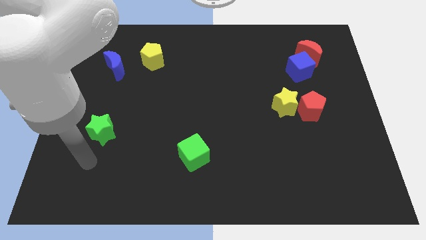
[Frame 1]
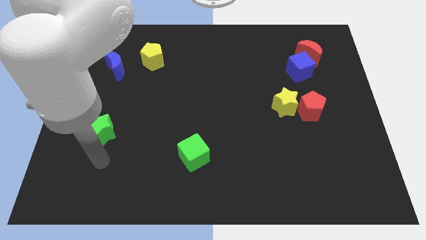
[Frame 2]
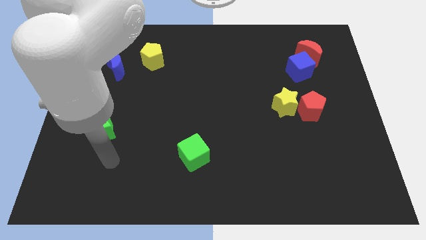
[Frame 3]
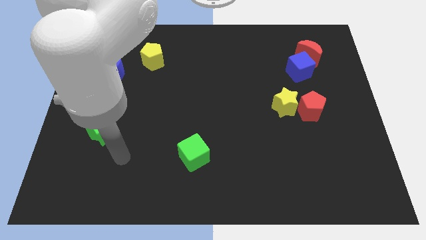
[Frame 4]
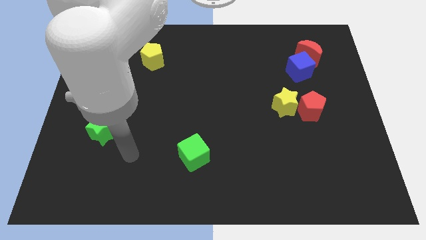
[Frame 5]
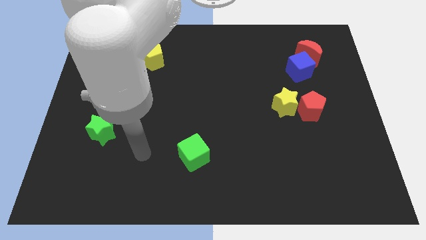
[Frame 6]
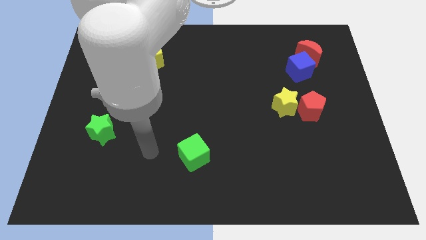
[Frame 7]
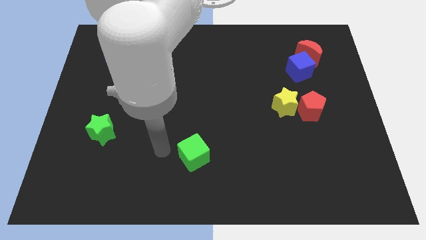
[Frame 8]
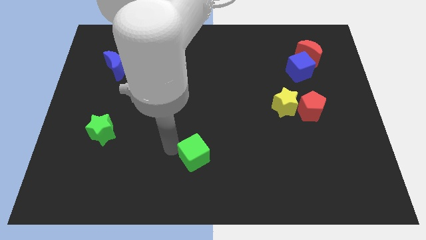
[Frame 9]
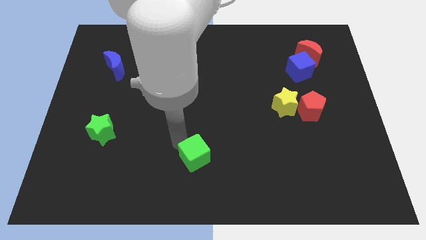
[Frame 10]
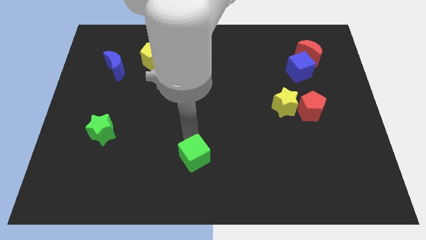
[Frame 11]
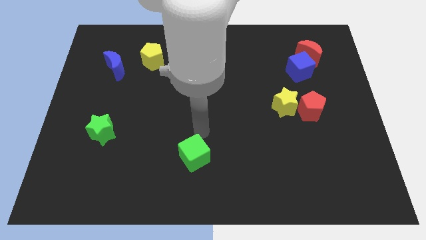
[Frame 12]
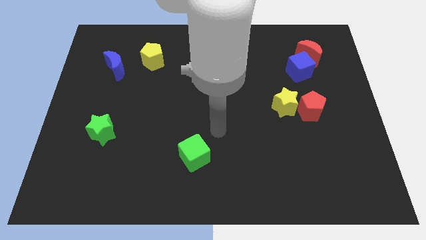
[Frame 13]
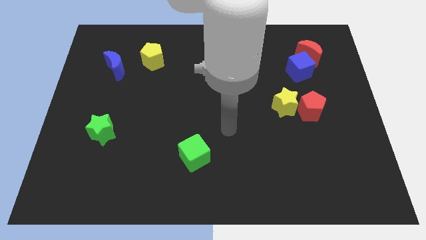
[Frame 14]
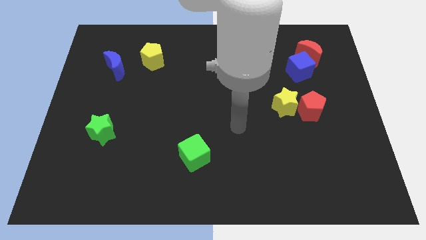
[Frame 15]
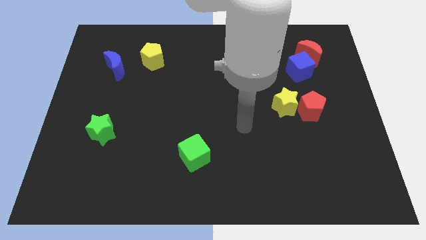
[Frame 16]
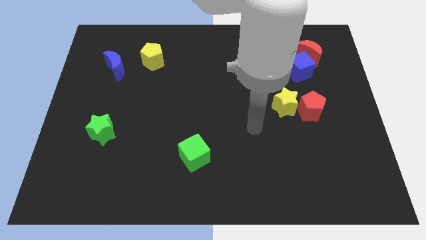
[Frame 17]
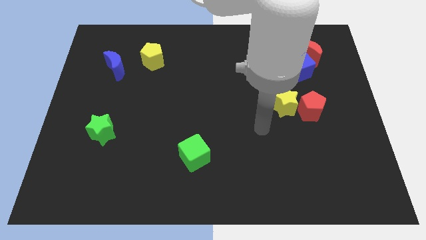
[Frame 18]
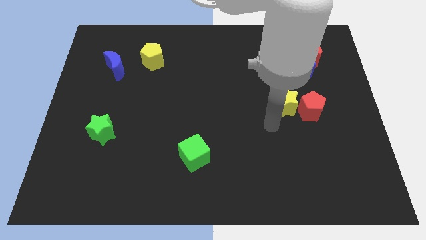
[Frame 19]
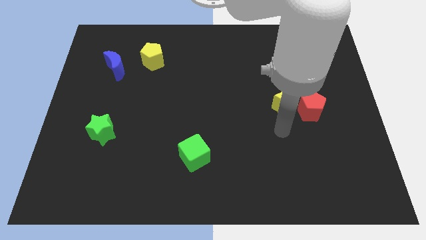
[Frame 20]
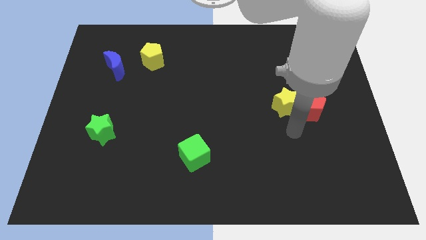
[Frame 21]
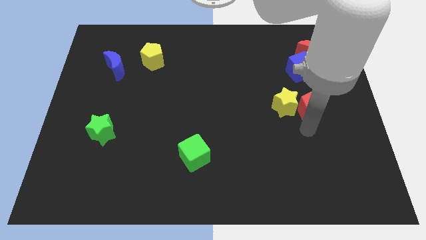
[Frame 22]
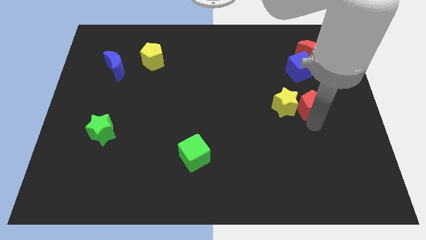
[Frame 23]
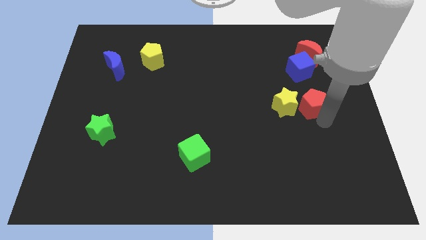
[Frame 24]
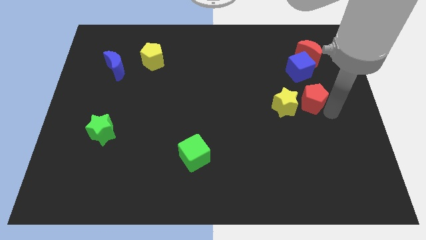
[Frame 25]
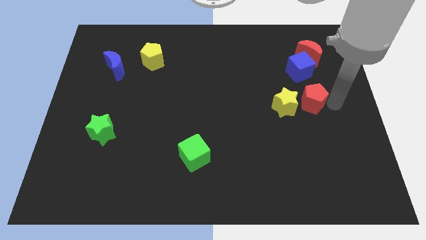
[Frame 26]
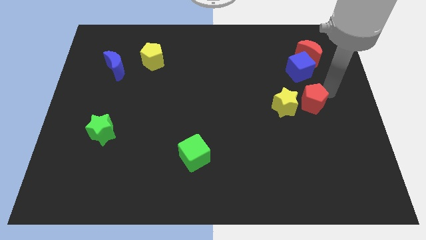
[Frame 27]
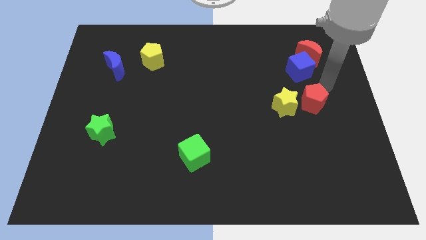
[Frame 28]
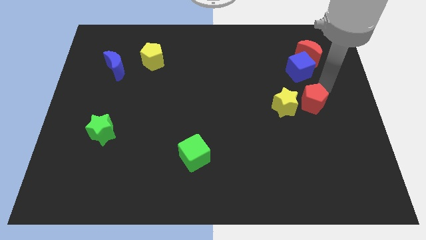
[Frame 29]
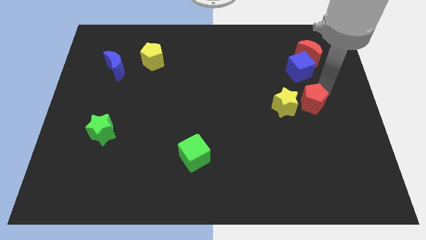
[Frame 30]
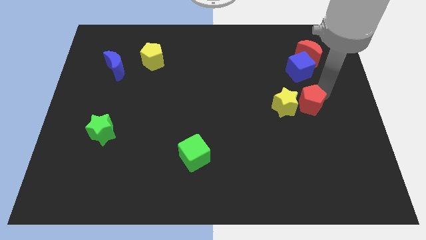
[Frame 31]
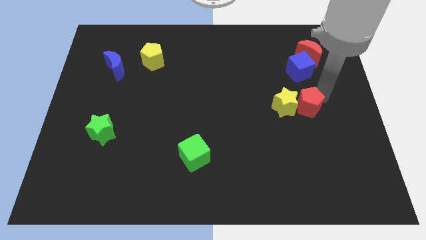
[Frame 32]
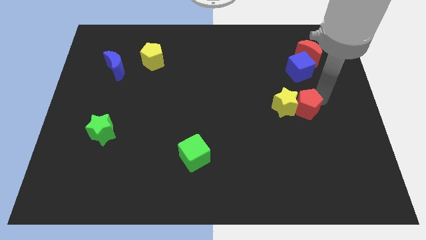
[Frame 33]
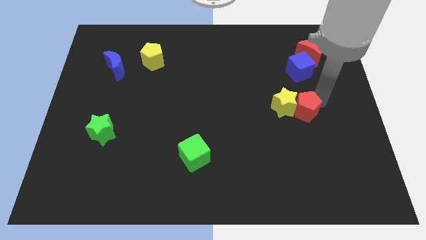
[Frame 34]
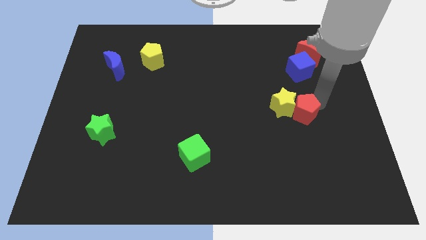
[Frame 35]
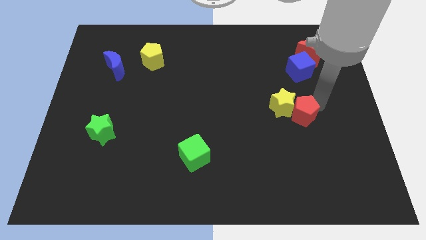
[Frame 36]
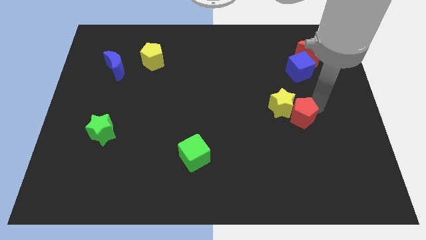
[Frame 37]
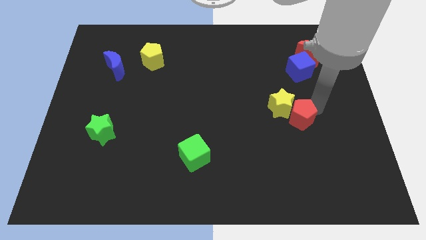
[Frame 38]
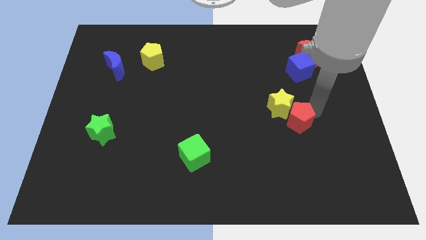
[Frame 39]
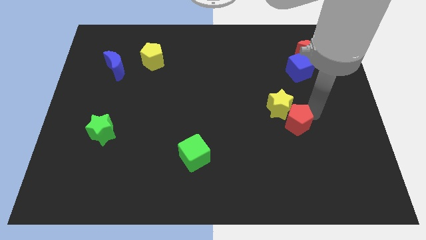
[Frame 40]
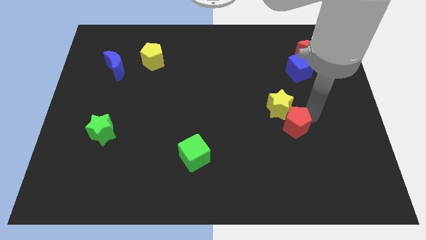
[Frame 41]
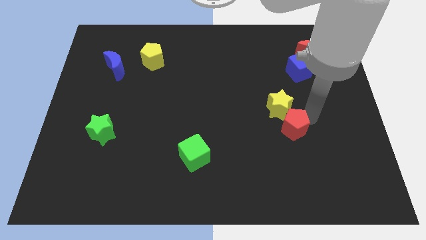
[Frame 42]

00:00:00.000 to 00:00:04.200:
slide the red pentagon a little bit down and left diagonally

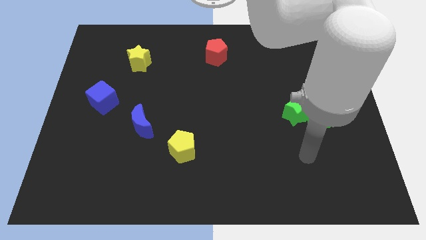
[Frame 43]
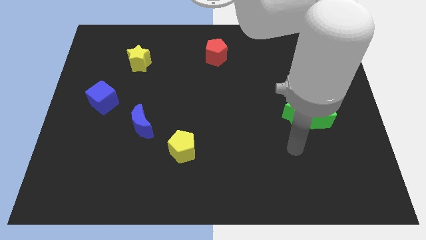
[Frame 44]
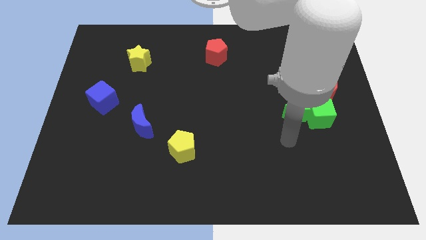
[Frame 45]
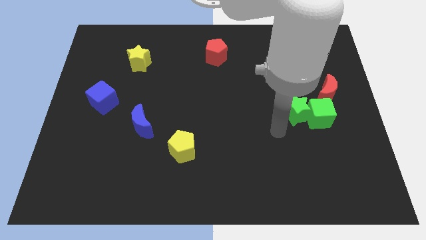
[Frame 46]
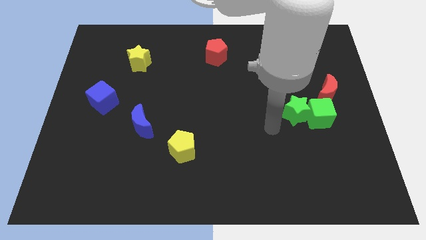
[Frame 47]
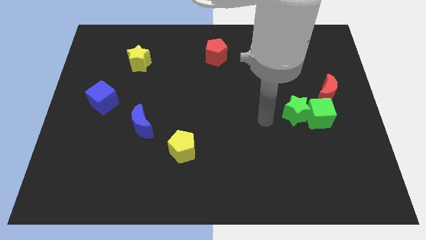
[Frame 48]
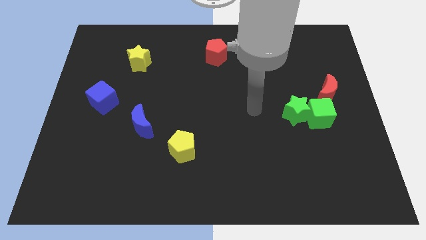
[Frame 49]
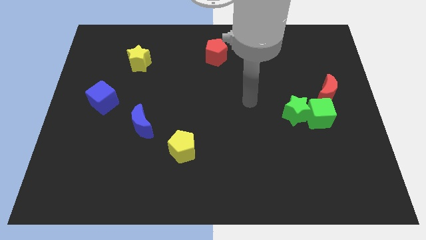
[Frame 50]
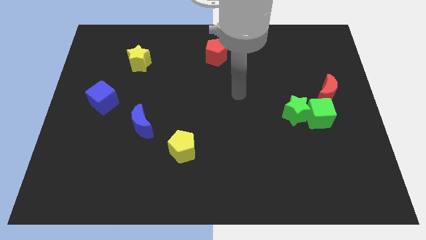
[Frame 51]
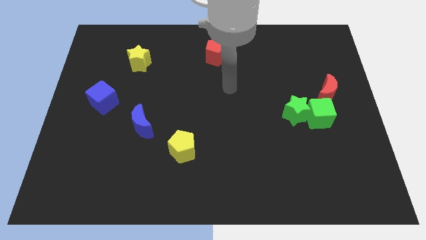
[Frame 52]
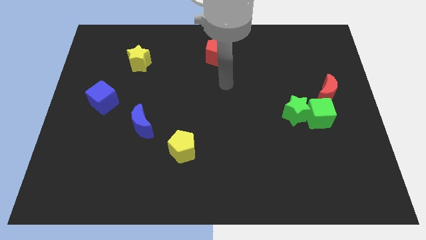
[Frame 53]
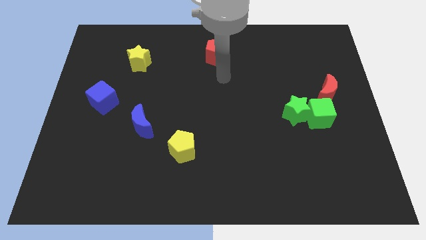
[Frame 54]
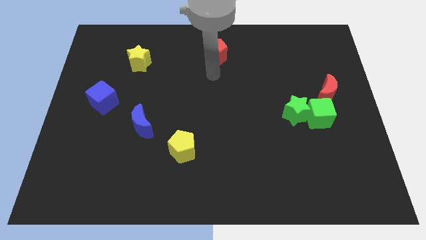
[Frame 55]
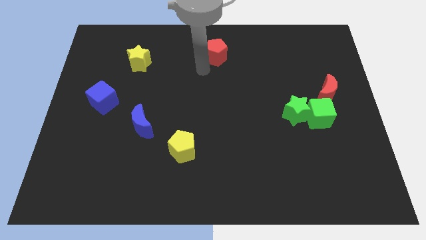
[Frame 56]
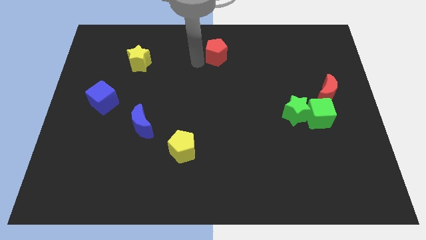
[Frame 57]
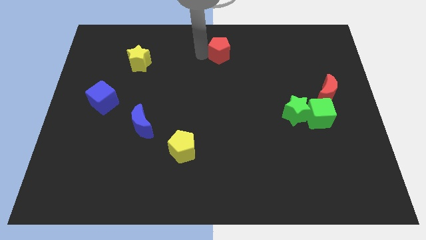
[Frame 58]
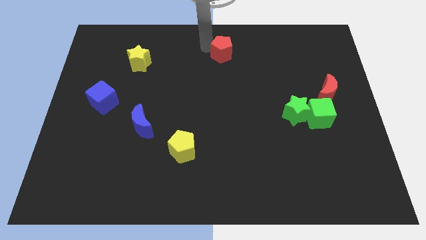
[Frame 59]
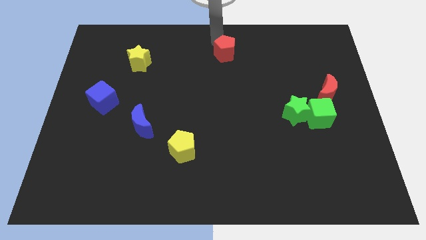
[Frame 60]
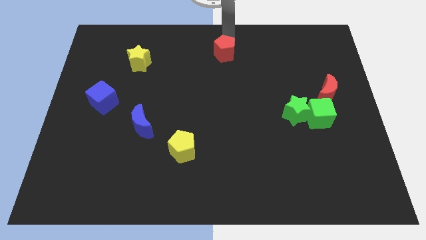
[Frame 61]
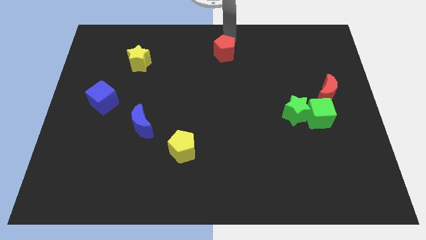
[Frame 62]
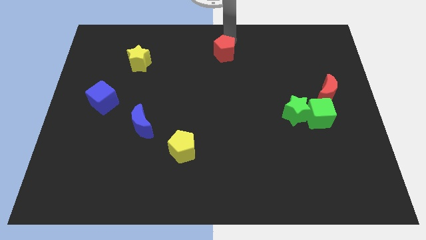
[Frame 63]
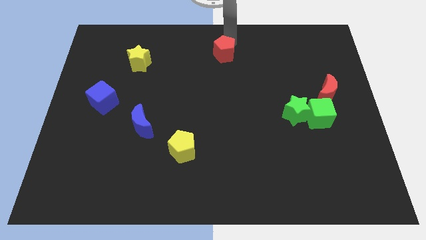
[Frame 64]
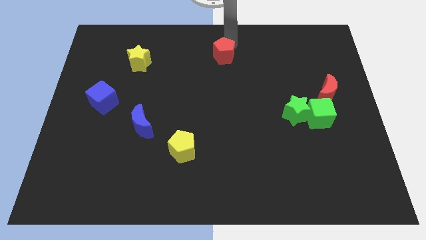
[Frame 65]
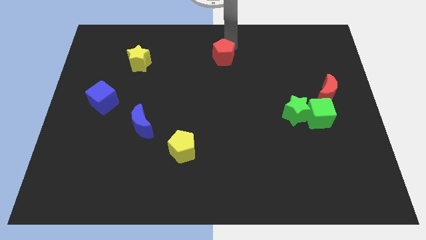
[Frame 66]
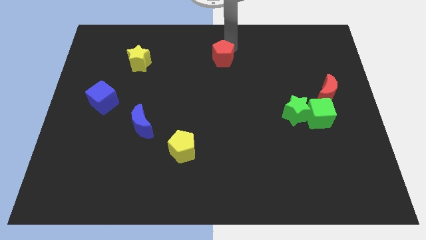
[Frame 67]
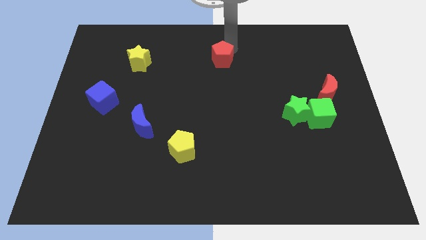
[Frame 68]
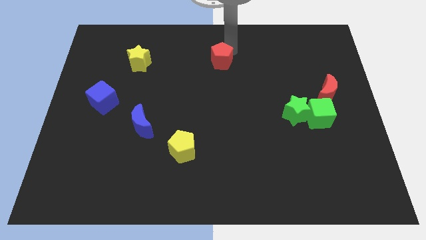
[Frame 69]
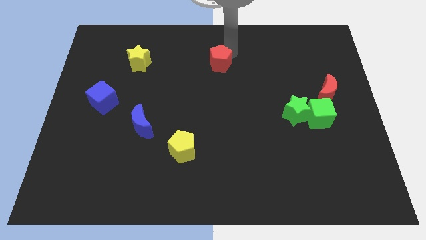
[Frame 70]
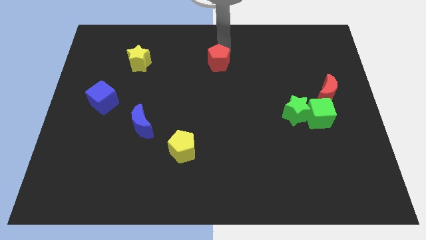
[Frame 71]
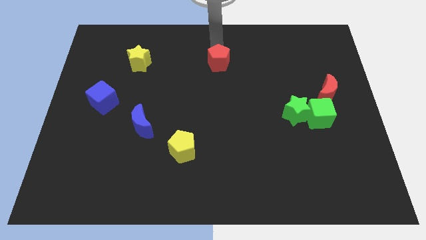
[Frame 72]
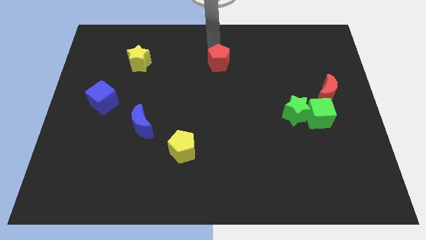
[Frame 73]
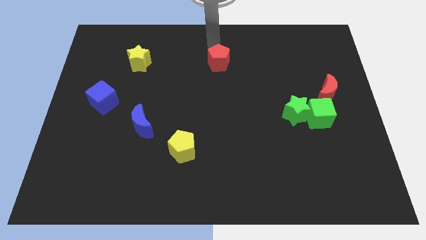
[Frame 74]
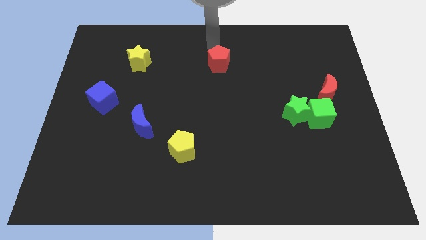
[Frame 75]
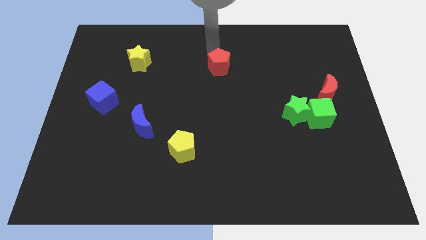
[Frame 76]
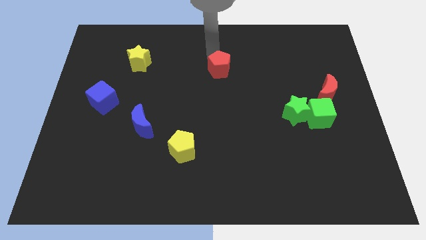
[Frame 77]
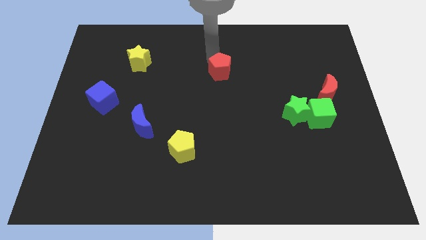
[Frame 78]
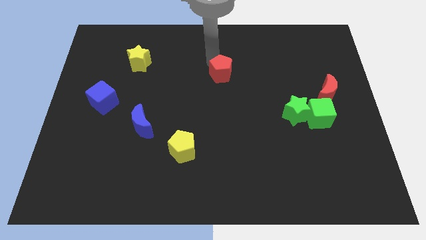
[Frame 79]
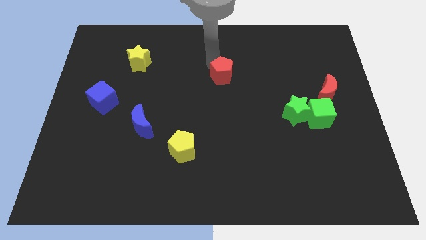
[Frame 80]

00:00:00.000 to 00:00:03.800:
slightly move the red pentagon down

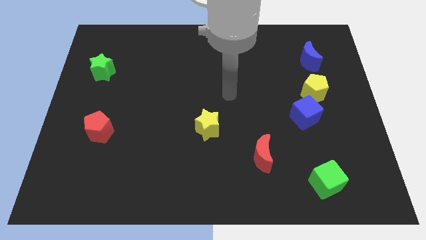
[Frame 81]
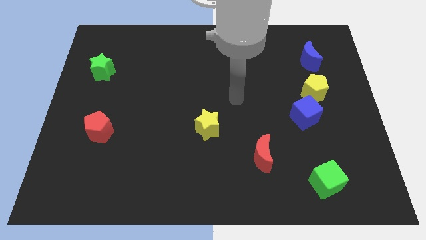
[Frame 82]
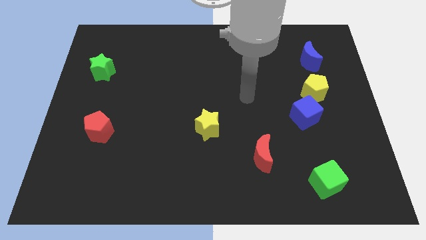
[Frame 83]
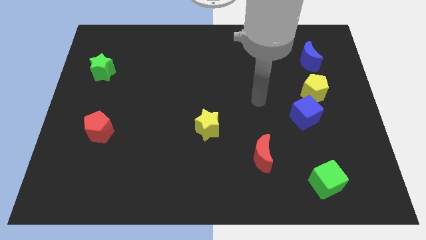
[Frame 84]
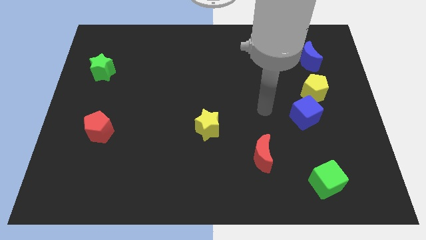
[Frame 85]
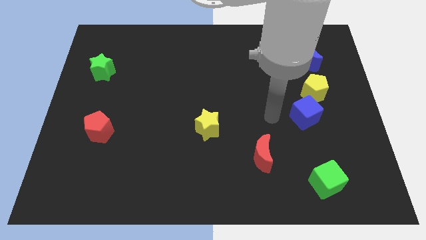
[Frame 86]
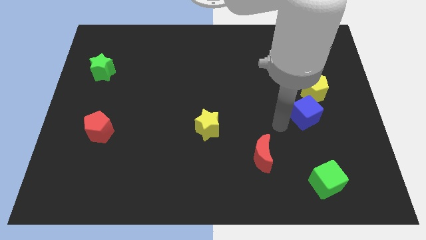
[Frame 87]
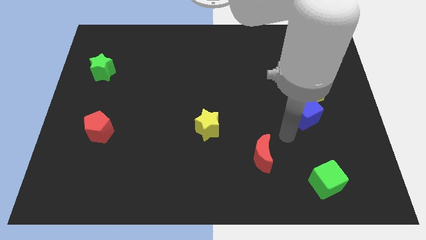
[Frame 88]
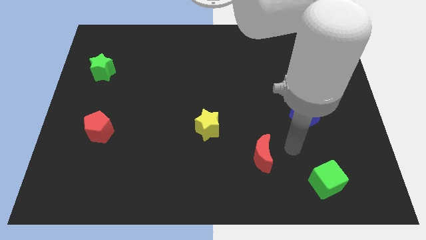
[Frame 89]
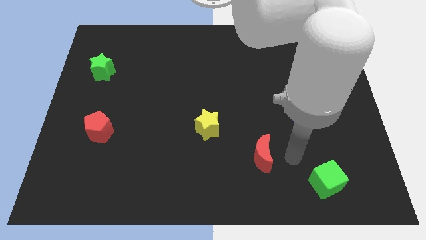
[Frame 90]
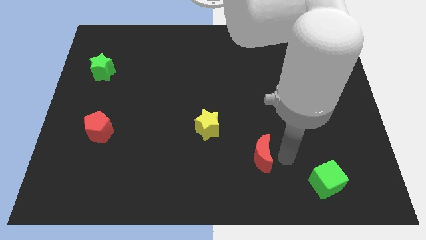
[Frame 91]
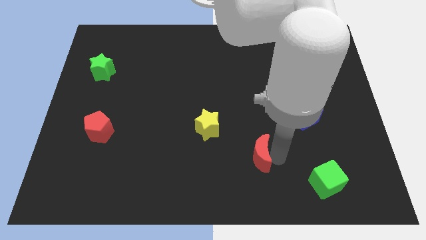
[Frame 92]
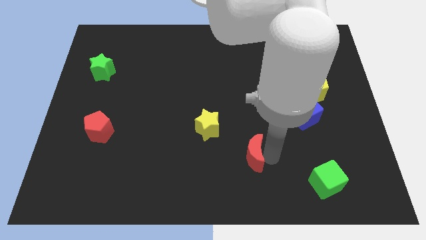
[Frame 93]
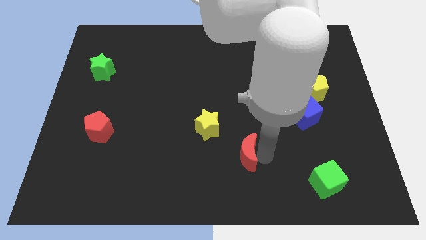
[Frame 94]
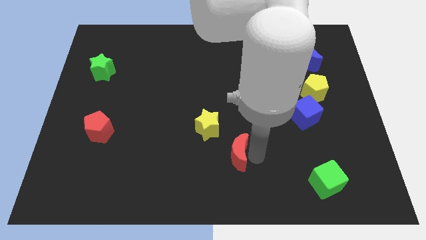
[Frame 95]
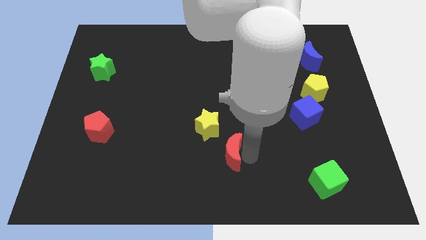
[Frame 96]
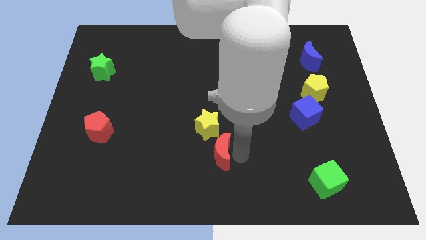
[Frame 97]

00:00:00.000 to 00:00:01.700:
move the red moon slightly to the left
